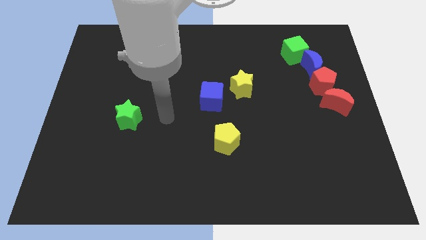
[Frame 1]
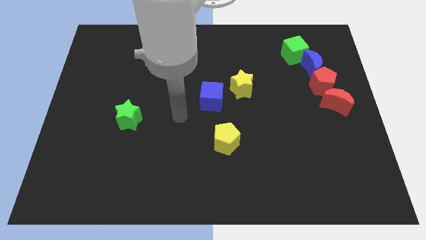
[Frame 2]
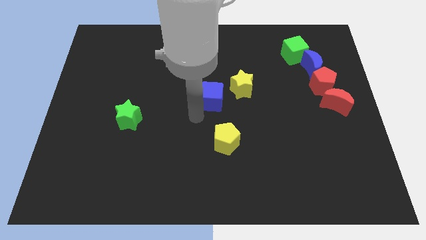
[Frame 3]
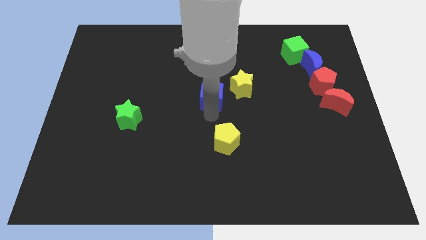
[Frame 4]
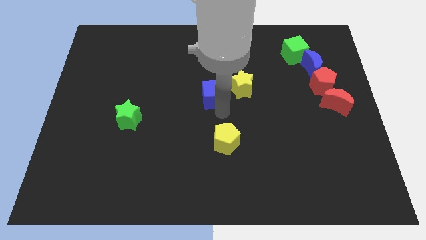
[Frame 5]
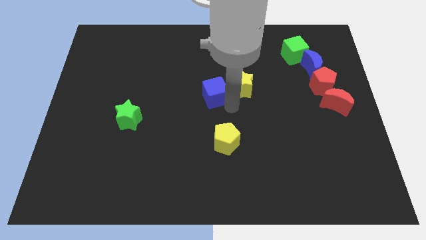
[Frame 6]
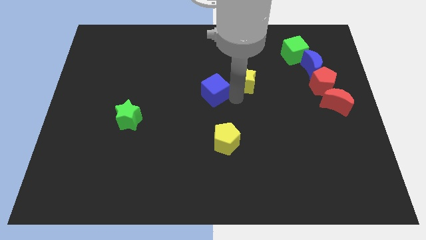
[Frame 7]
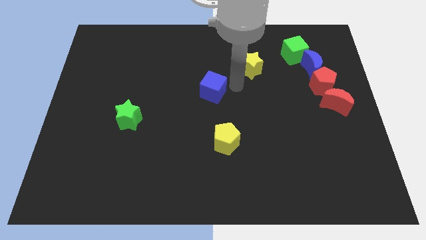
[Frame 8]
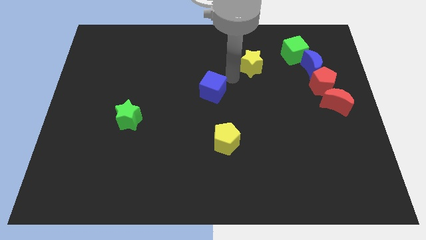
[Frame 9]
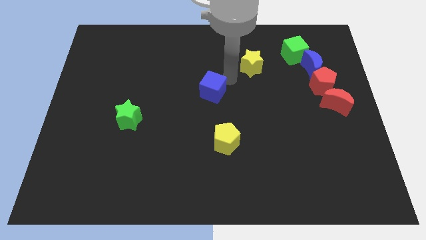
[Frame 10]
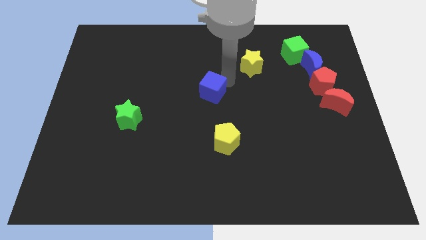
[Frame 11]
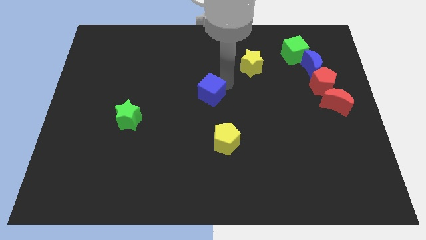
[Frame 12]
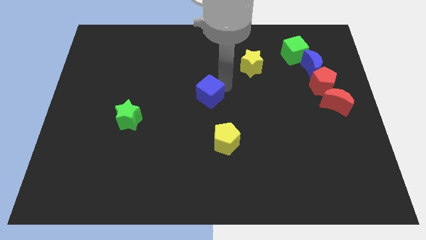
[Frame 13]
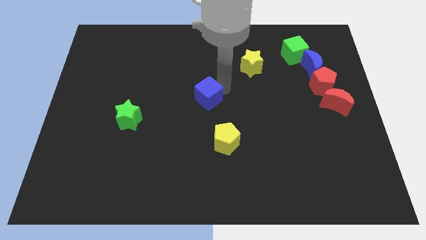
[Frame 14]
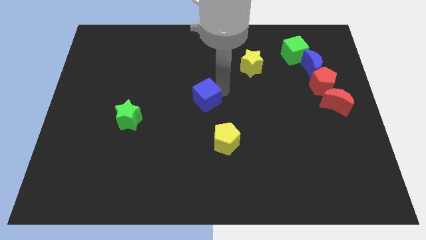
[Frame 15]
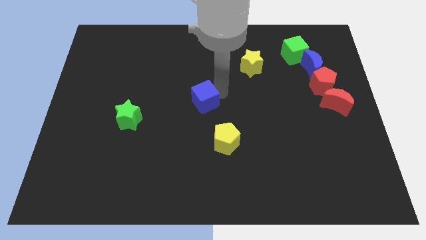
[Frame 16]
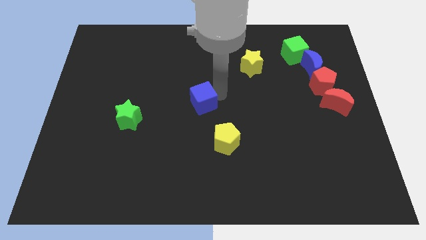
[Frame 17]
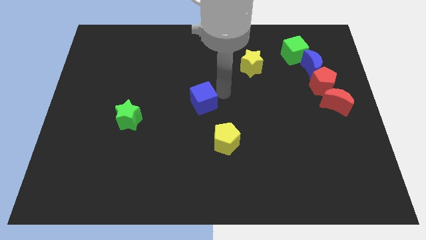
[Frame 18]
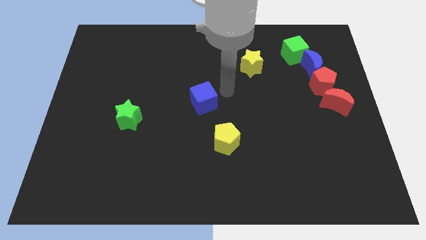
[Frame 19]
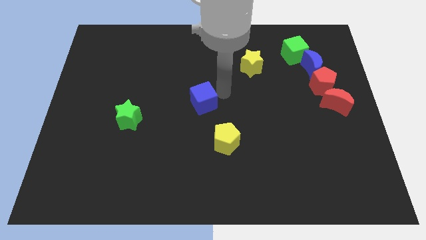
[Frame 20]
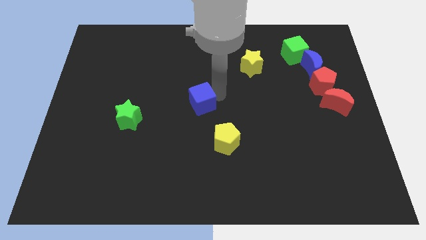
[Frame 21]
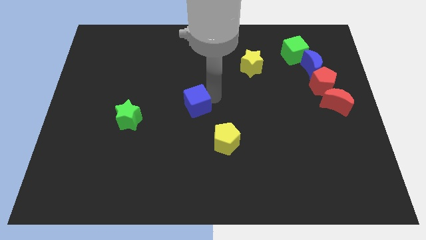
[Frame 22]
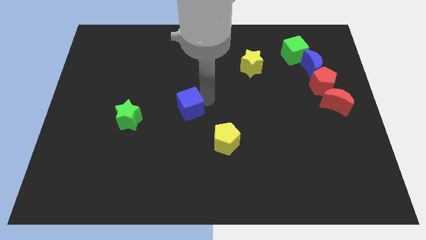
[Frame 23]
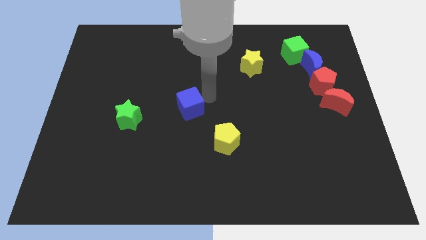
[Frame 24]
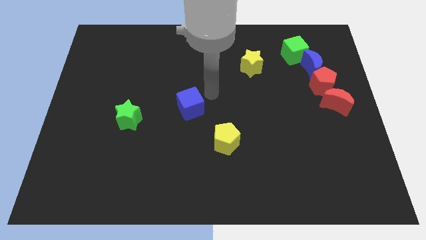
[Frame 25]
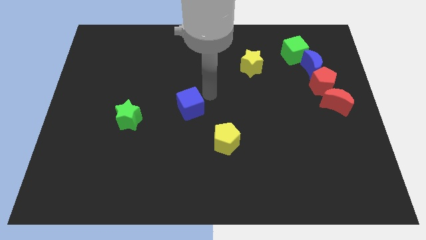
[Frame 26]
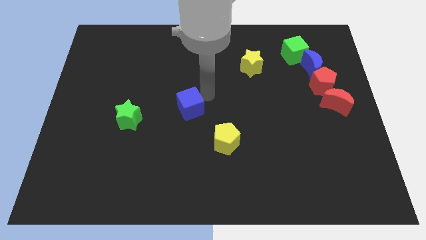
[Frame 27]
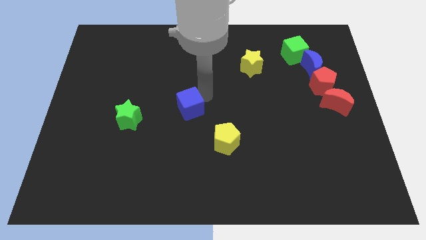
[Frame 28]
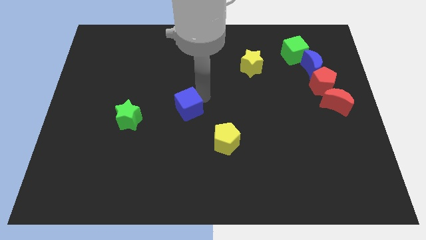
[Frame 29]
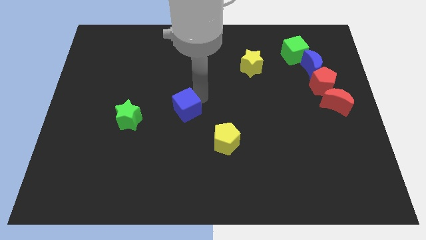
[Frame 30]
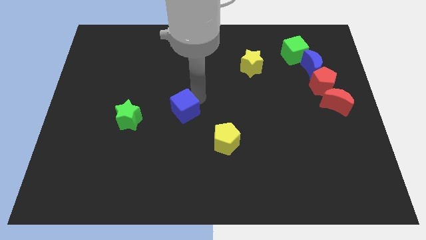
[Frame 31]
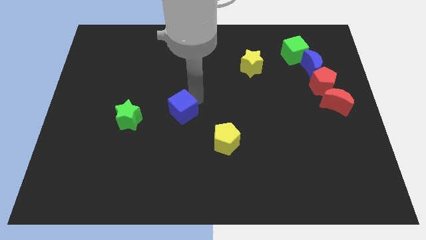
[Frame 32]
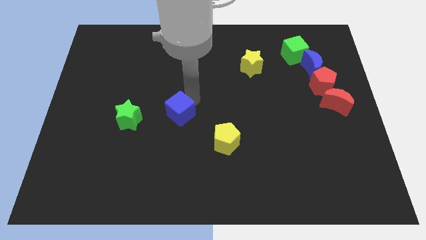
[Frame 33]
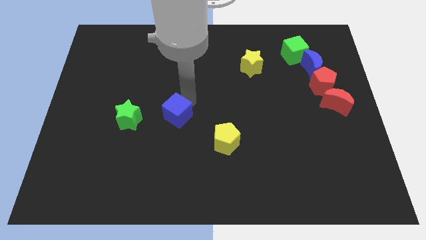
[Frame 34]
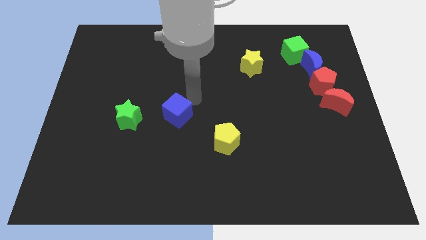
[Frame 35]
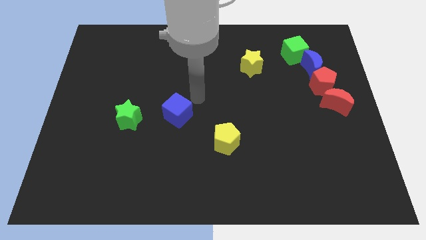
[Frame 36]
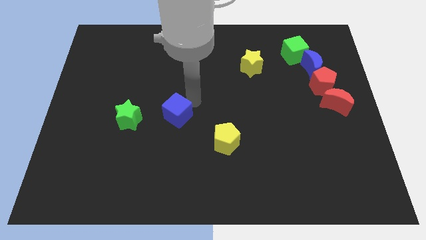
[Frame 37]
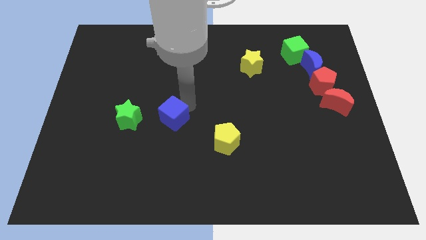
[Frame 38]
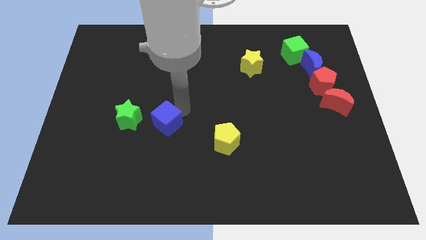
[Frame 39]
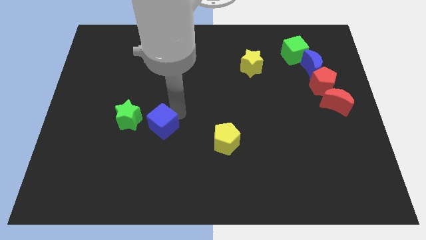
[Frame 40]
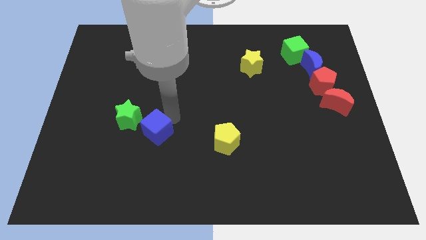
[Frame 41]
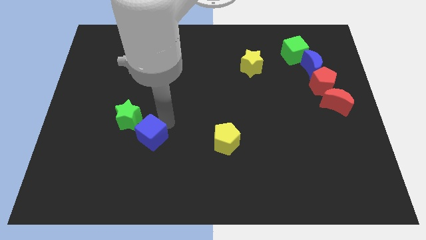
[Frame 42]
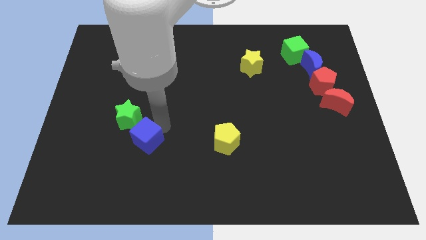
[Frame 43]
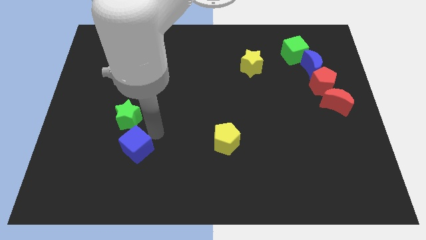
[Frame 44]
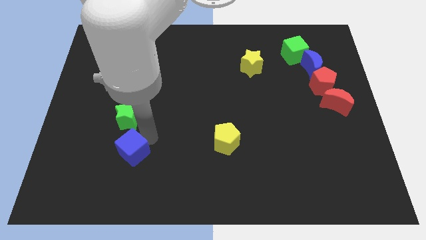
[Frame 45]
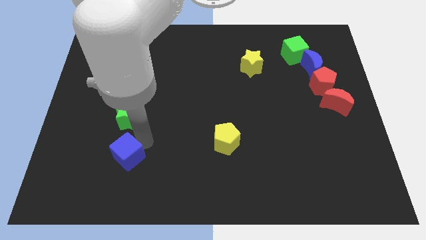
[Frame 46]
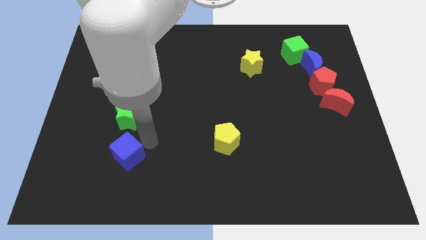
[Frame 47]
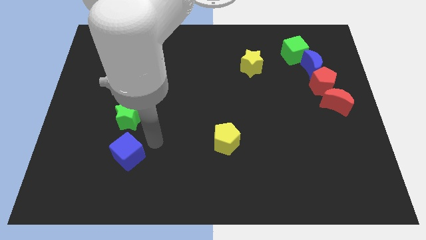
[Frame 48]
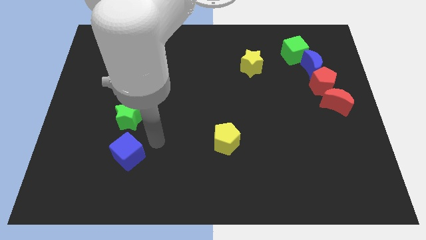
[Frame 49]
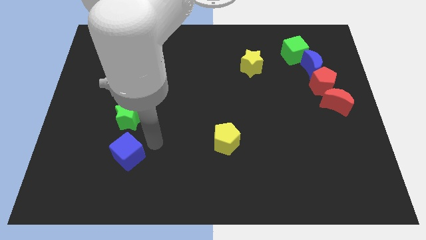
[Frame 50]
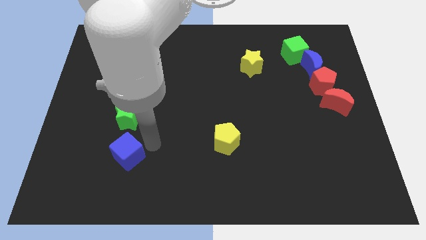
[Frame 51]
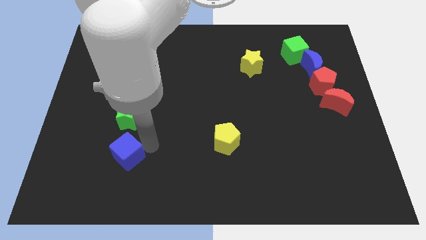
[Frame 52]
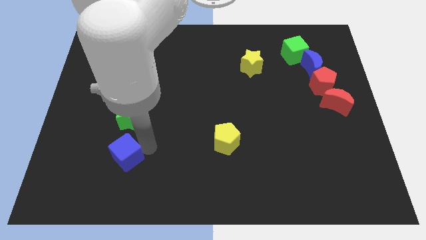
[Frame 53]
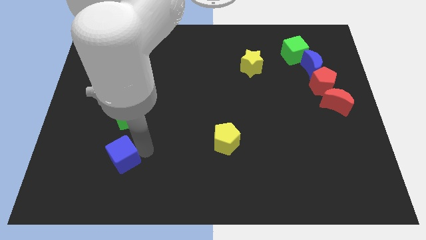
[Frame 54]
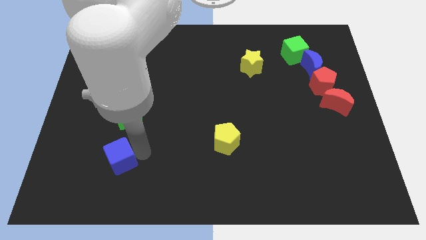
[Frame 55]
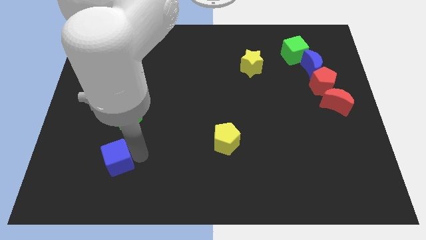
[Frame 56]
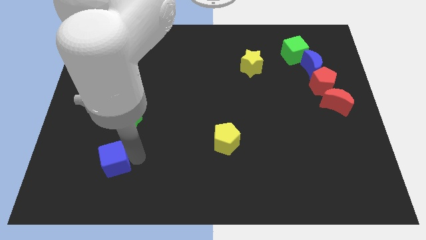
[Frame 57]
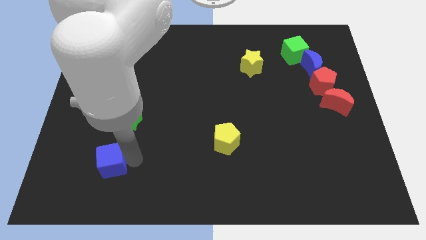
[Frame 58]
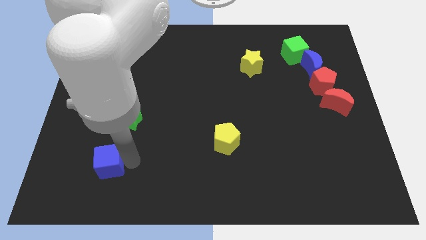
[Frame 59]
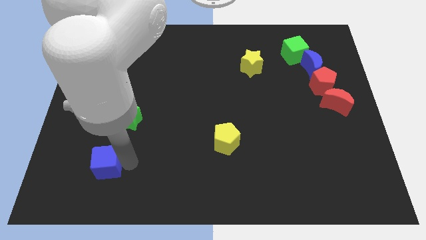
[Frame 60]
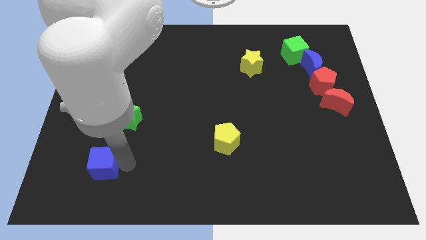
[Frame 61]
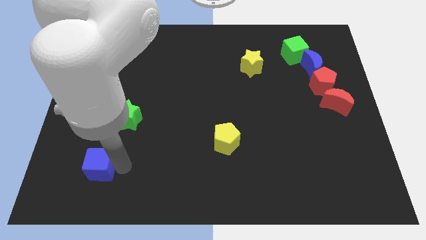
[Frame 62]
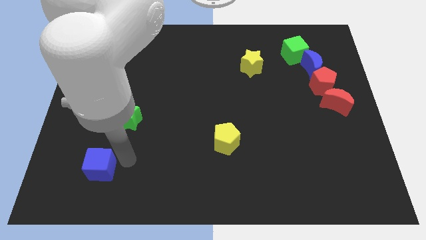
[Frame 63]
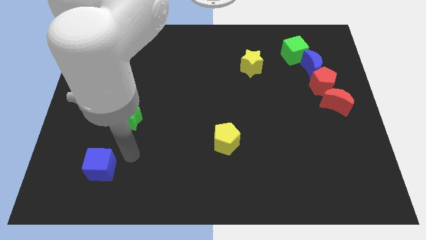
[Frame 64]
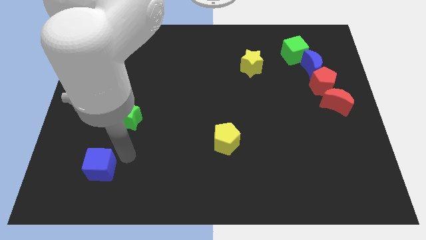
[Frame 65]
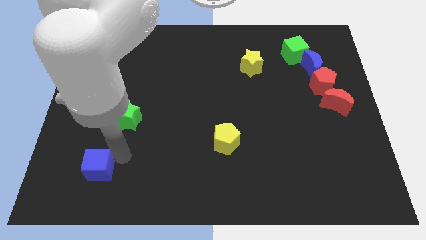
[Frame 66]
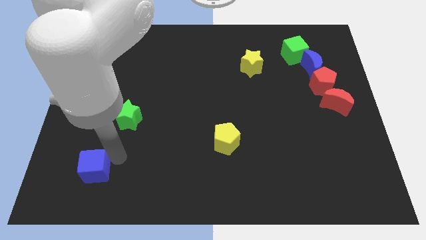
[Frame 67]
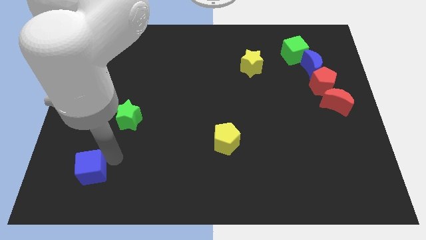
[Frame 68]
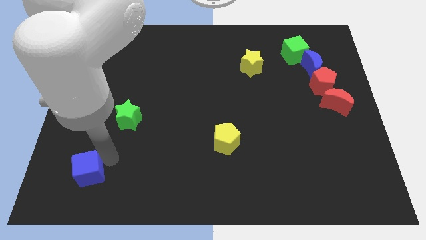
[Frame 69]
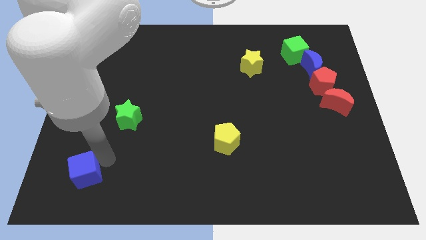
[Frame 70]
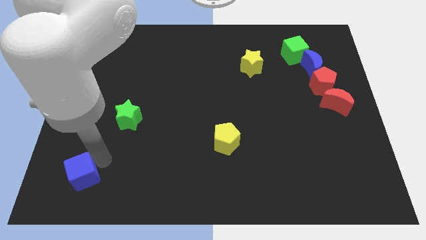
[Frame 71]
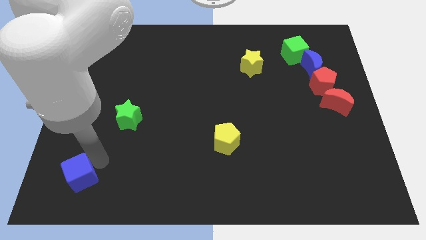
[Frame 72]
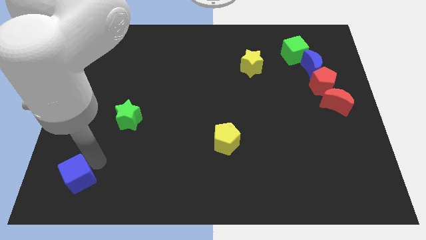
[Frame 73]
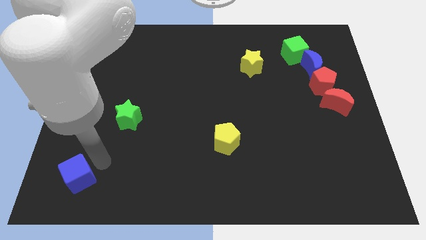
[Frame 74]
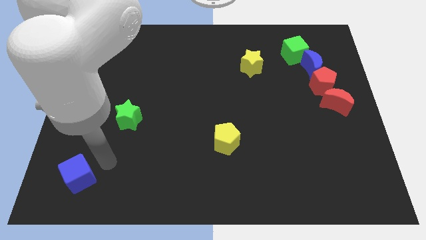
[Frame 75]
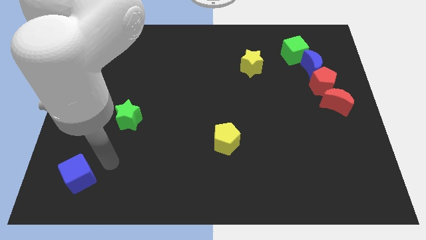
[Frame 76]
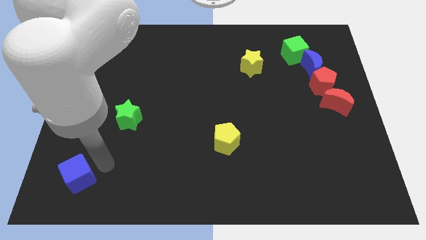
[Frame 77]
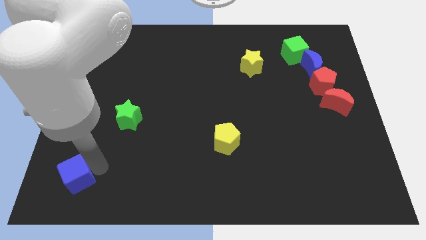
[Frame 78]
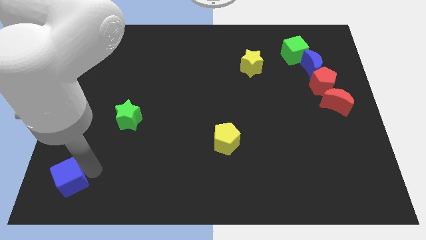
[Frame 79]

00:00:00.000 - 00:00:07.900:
push the blue cube to the bottom left

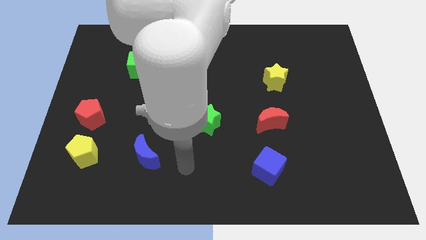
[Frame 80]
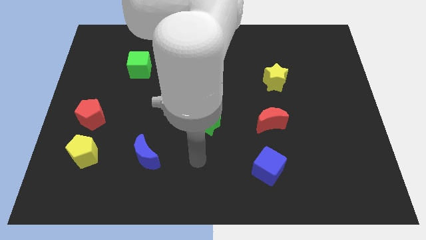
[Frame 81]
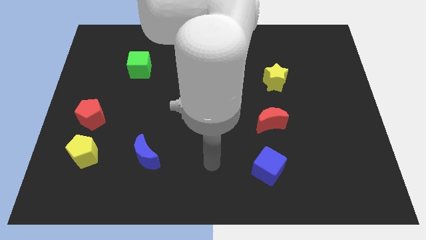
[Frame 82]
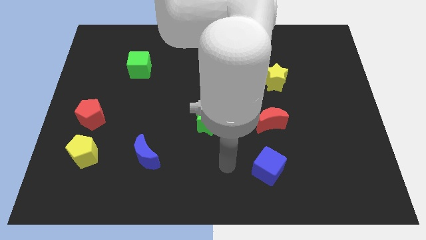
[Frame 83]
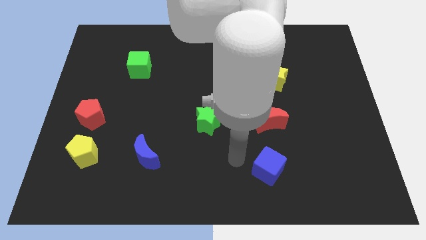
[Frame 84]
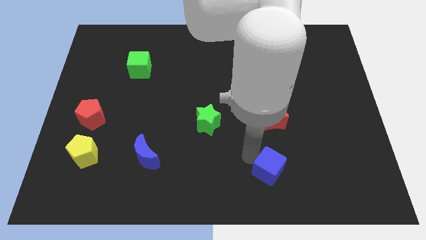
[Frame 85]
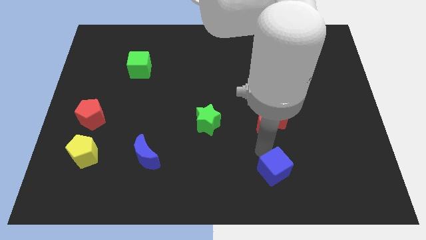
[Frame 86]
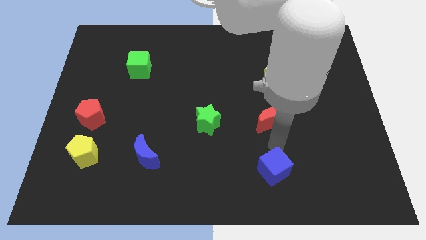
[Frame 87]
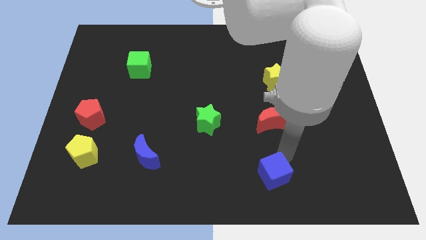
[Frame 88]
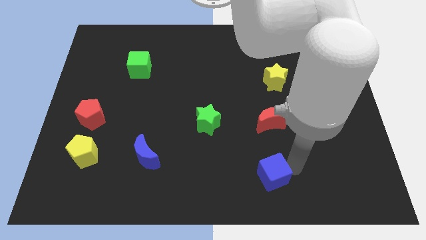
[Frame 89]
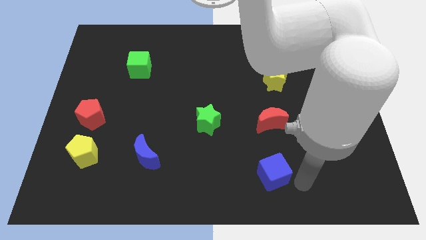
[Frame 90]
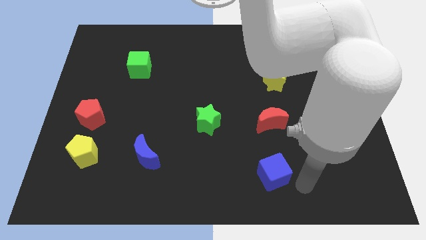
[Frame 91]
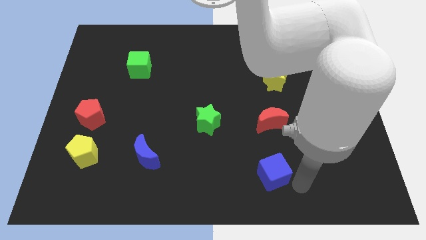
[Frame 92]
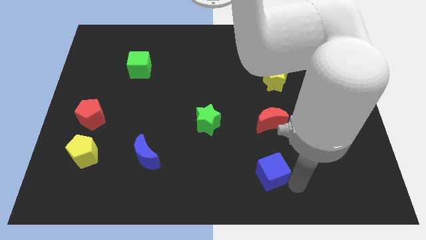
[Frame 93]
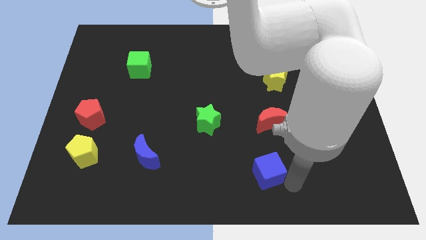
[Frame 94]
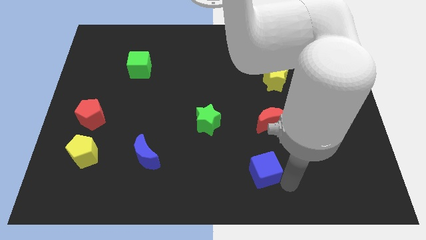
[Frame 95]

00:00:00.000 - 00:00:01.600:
put the blue cube to the bottom
